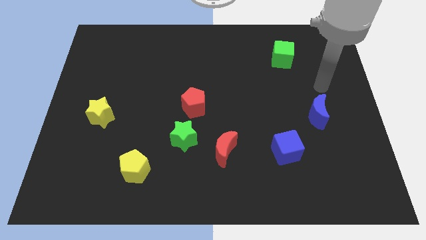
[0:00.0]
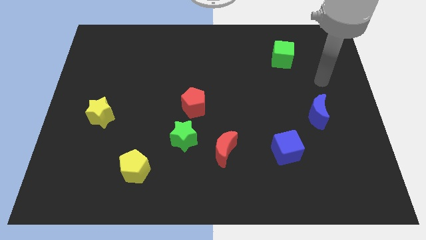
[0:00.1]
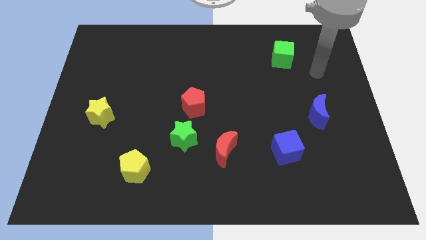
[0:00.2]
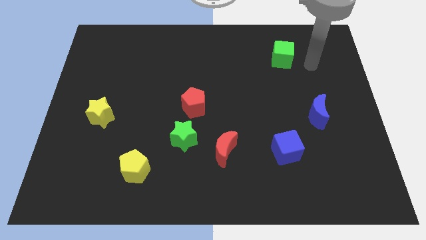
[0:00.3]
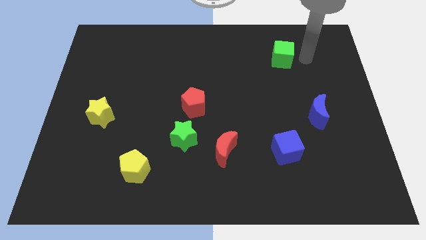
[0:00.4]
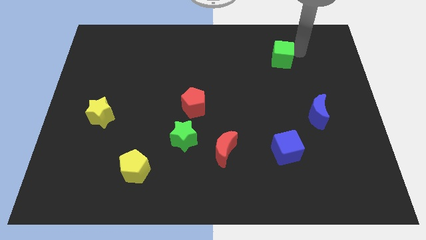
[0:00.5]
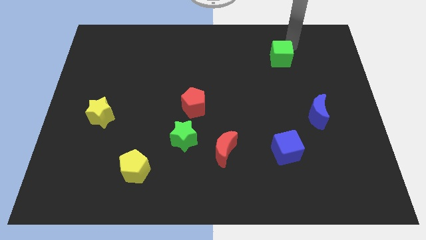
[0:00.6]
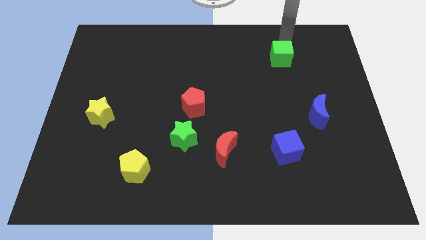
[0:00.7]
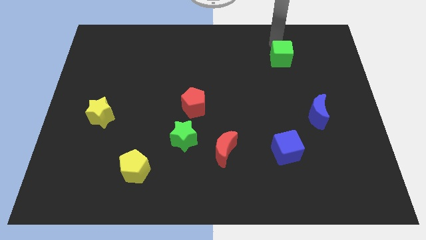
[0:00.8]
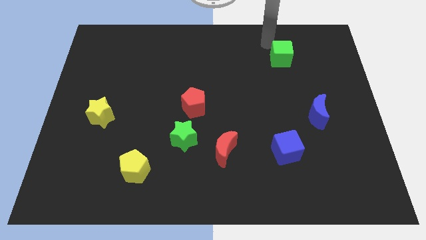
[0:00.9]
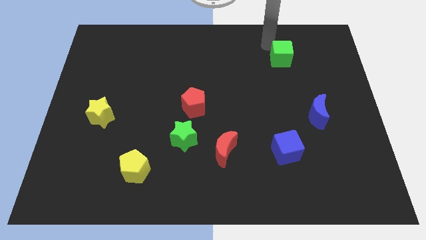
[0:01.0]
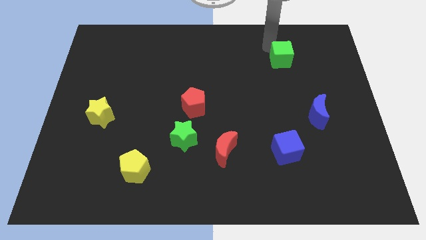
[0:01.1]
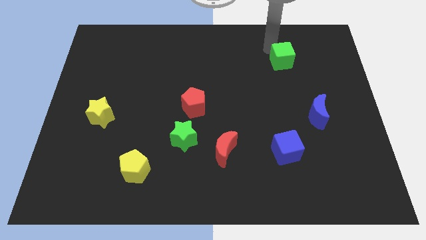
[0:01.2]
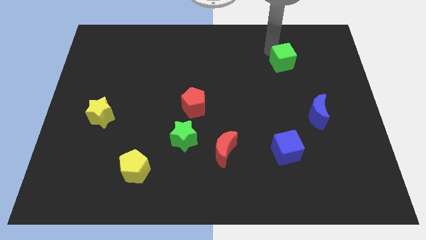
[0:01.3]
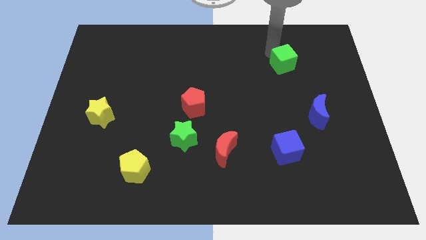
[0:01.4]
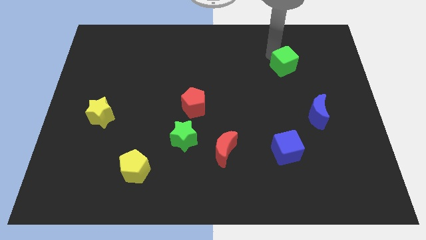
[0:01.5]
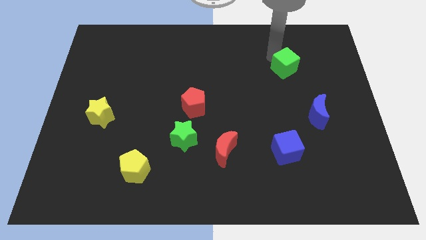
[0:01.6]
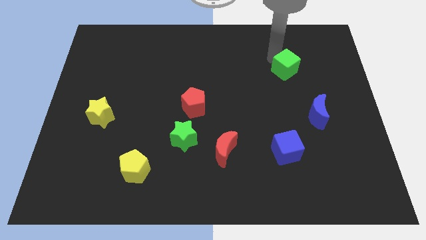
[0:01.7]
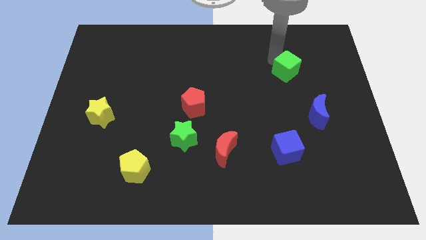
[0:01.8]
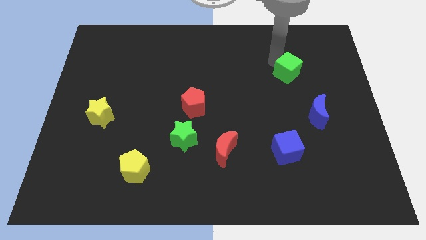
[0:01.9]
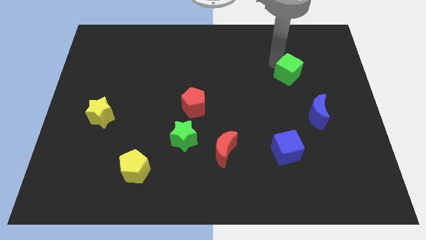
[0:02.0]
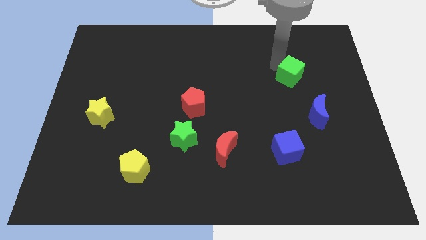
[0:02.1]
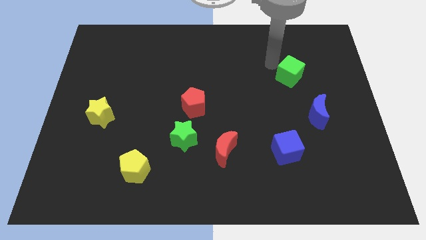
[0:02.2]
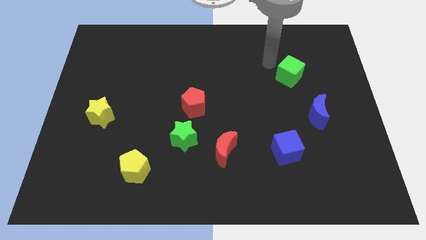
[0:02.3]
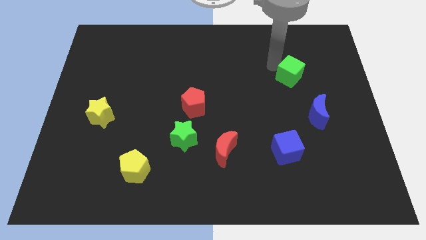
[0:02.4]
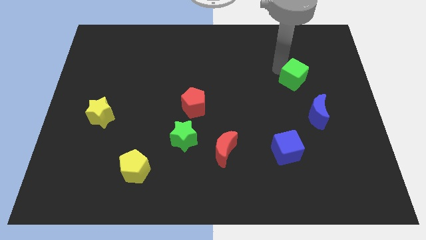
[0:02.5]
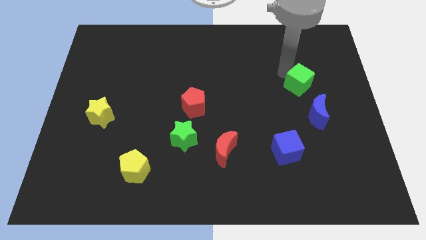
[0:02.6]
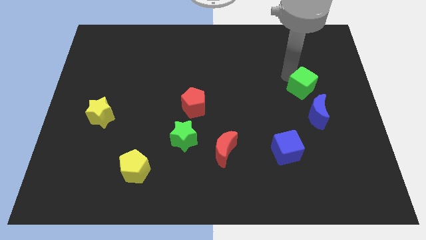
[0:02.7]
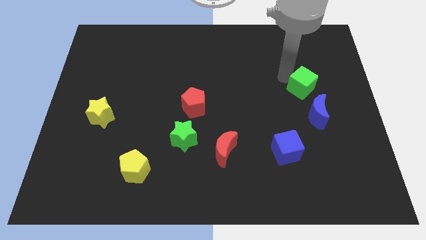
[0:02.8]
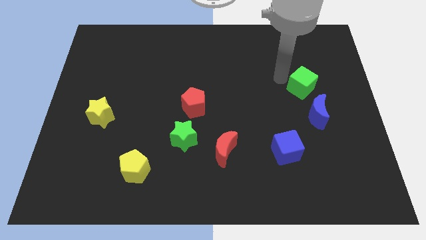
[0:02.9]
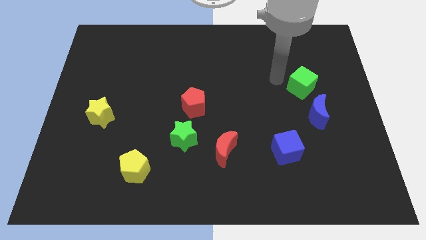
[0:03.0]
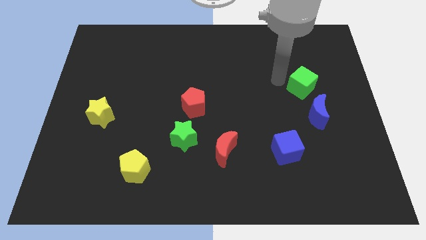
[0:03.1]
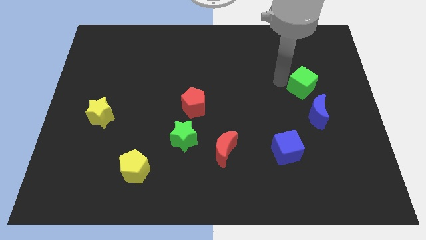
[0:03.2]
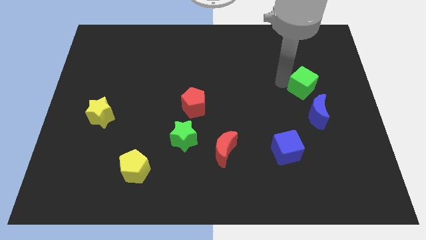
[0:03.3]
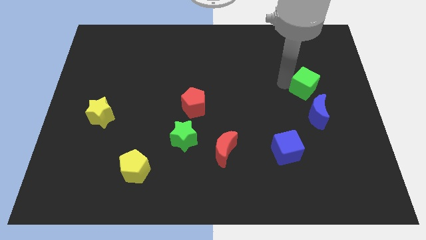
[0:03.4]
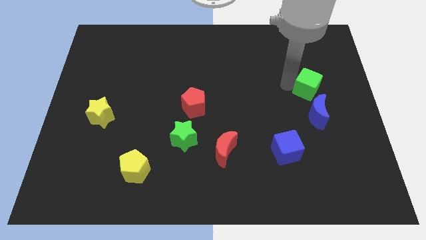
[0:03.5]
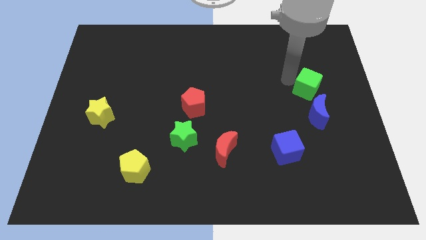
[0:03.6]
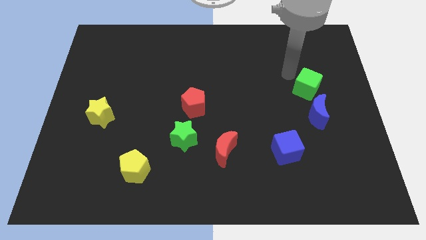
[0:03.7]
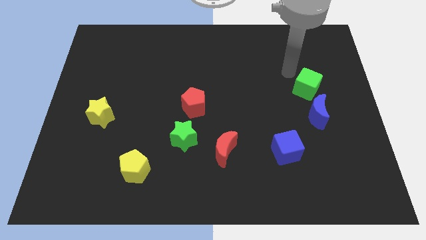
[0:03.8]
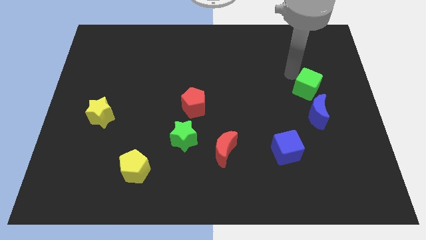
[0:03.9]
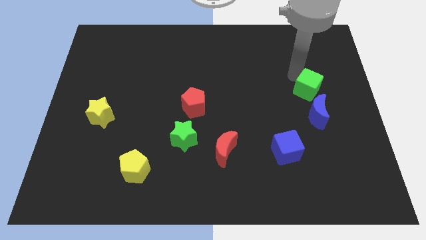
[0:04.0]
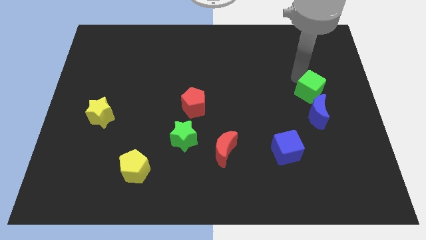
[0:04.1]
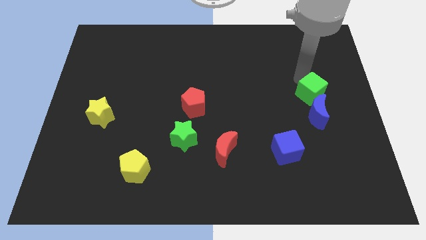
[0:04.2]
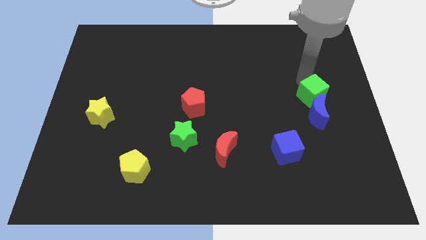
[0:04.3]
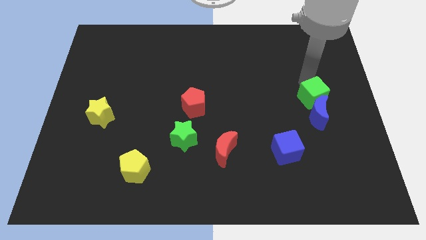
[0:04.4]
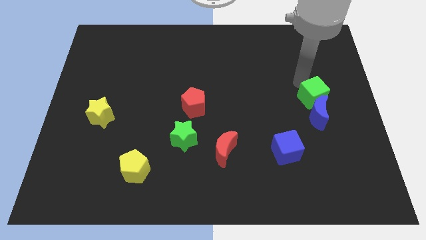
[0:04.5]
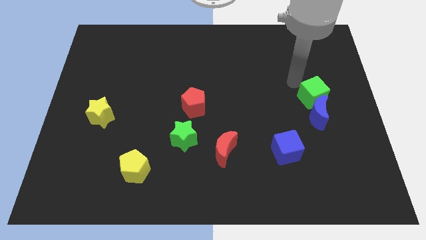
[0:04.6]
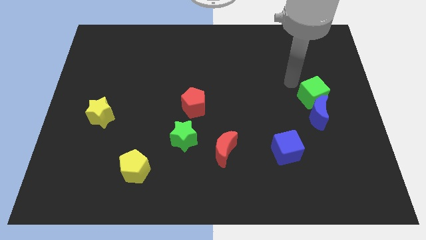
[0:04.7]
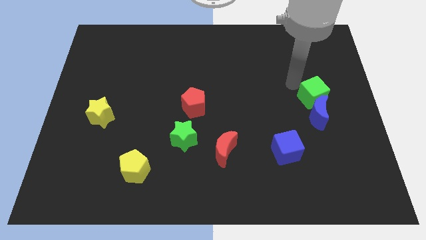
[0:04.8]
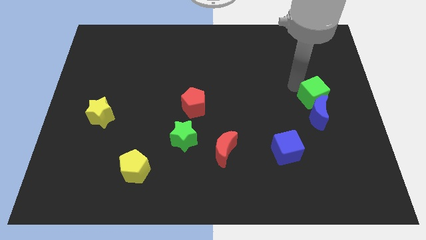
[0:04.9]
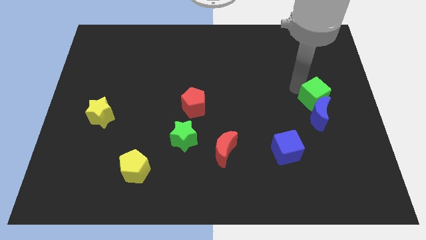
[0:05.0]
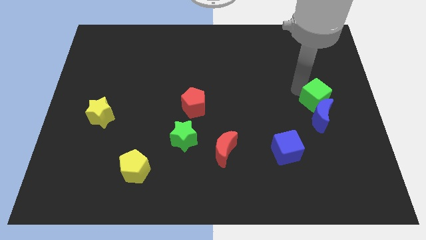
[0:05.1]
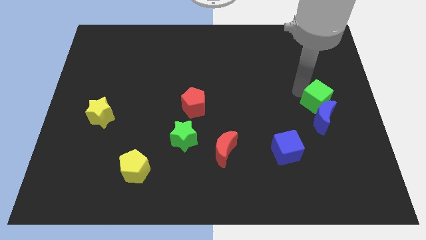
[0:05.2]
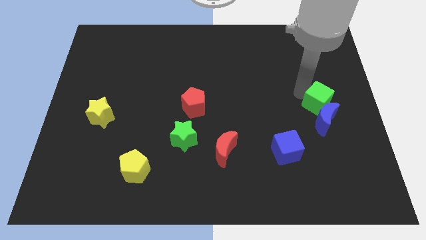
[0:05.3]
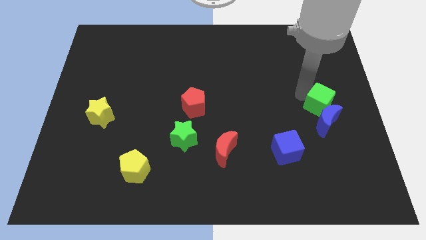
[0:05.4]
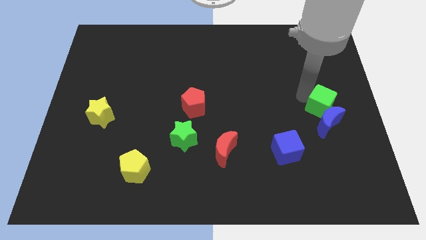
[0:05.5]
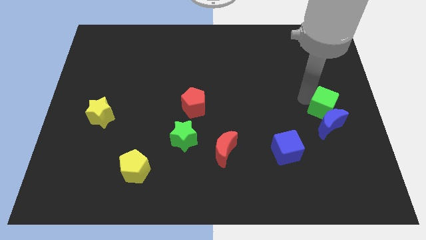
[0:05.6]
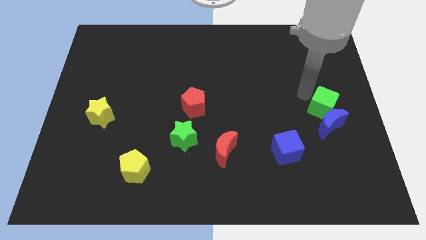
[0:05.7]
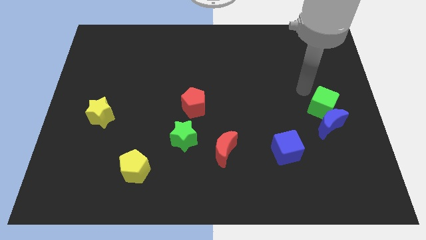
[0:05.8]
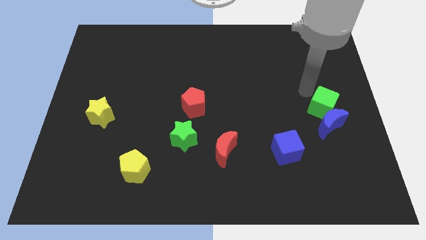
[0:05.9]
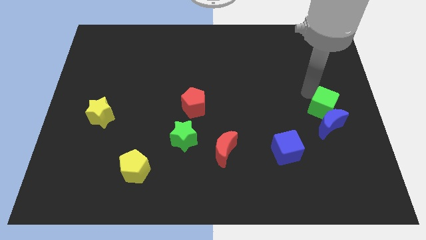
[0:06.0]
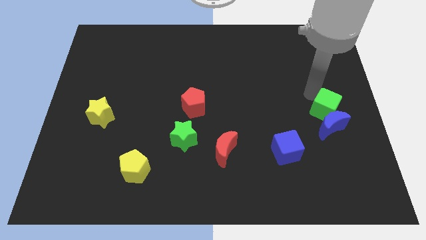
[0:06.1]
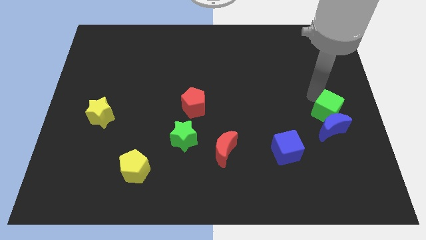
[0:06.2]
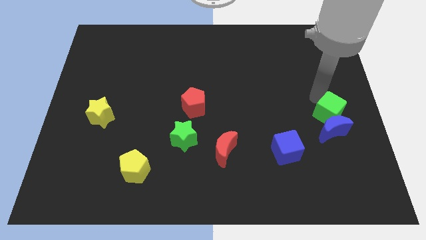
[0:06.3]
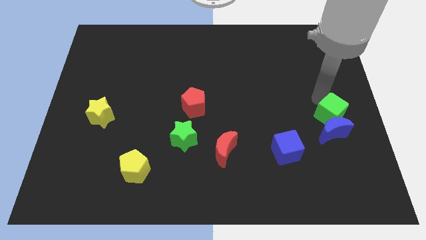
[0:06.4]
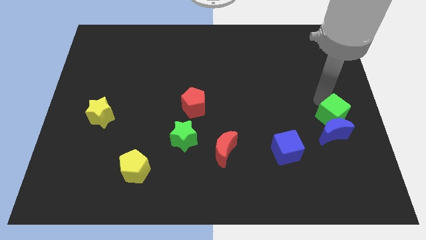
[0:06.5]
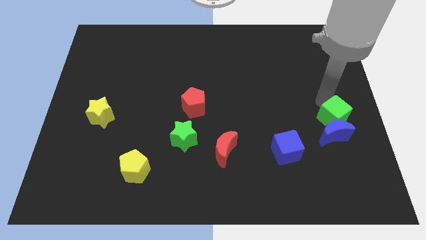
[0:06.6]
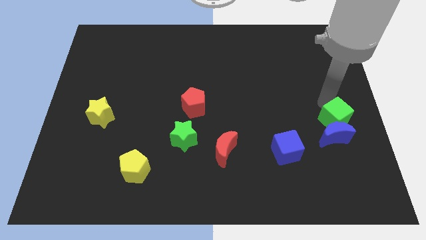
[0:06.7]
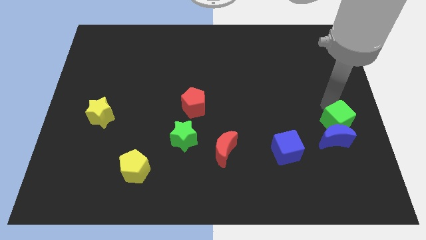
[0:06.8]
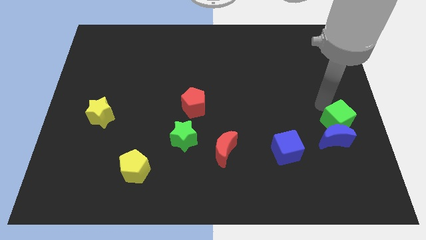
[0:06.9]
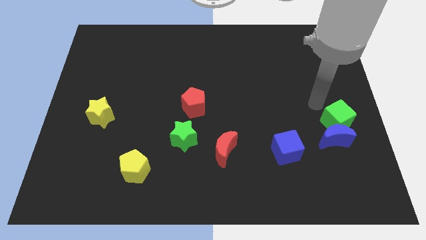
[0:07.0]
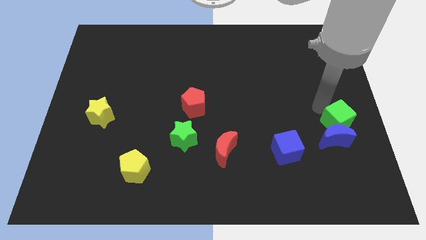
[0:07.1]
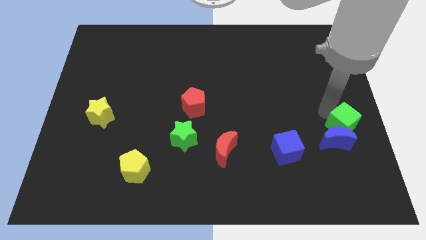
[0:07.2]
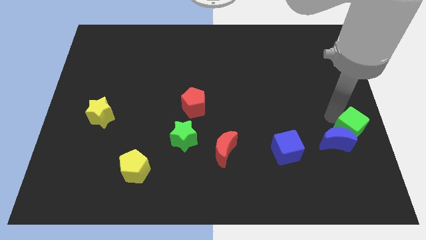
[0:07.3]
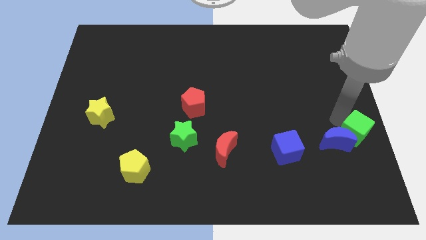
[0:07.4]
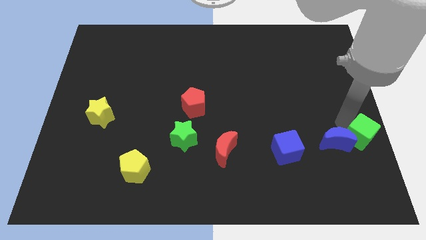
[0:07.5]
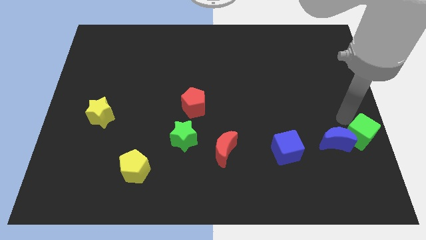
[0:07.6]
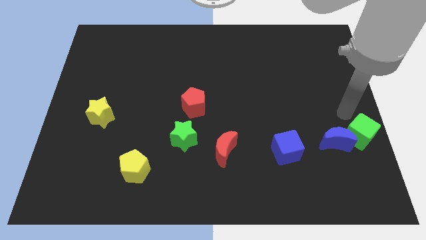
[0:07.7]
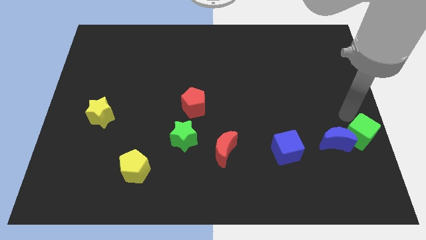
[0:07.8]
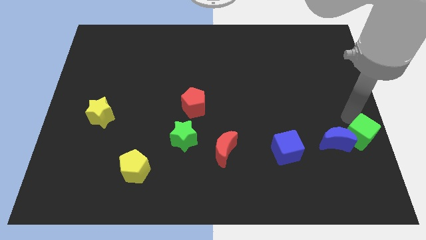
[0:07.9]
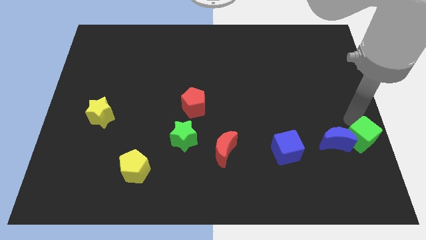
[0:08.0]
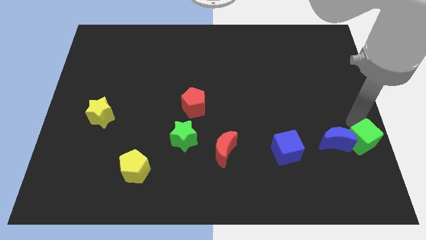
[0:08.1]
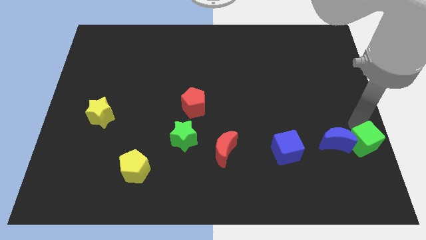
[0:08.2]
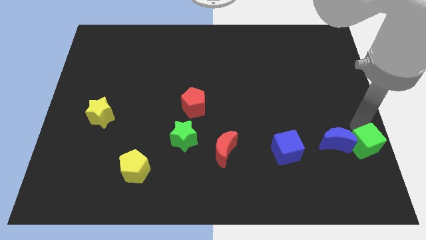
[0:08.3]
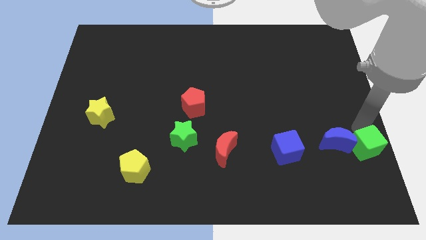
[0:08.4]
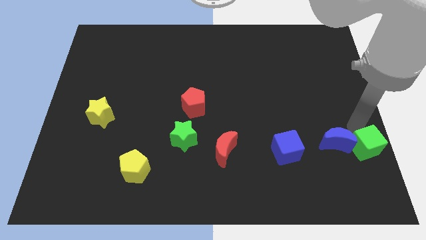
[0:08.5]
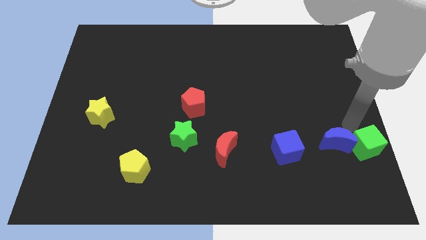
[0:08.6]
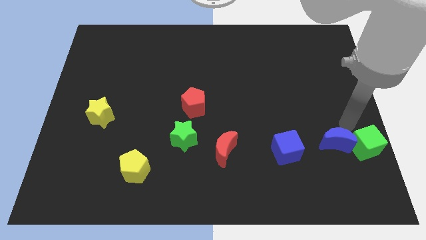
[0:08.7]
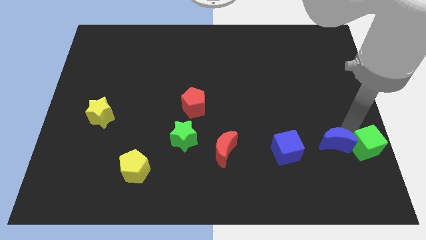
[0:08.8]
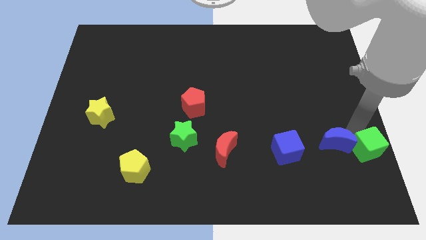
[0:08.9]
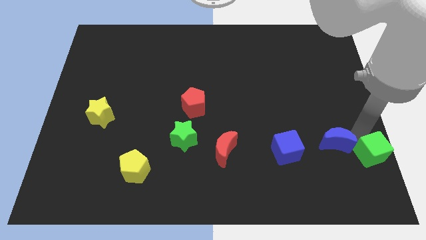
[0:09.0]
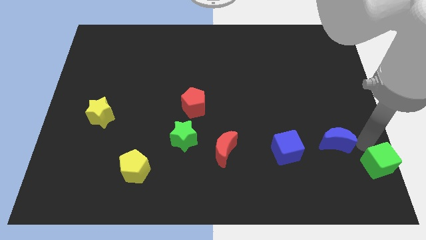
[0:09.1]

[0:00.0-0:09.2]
push the green cube to the lower right corner
